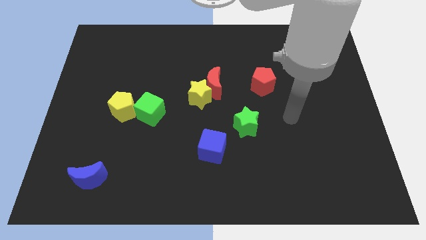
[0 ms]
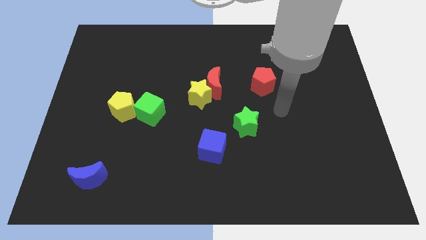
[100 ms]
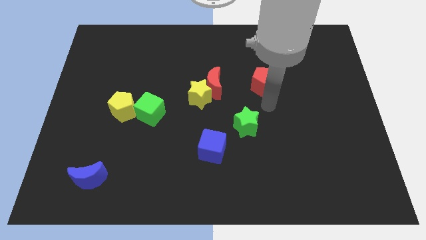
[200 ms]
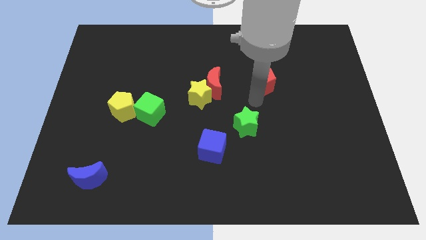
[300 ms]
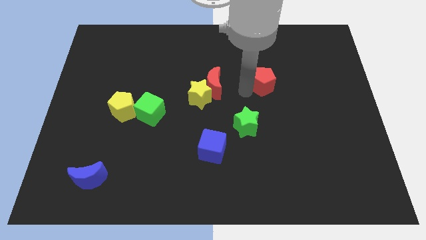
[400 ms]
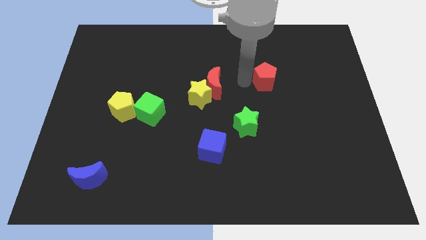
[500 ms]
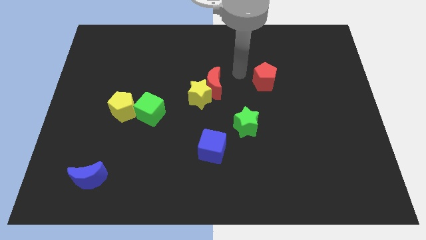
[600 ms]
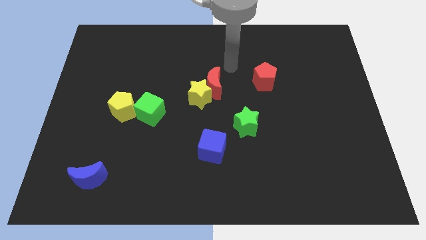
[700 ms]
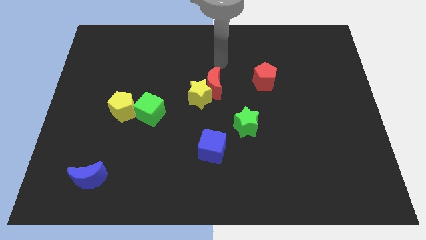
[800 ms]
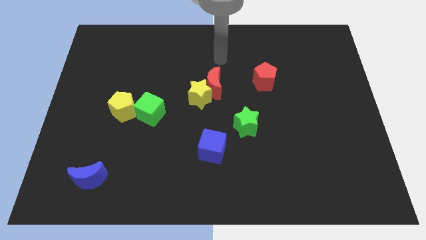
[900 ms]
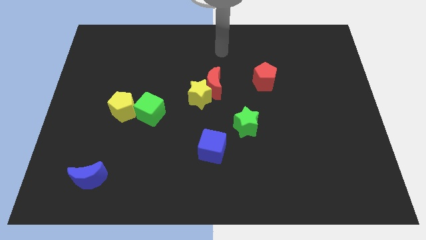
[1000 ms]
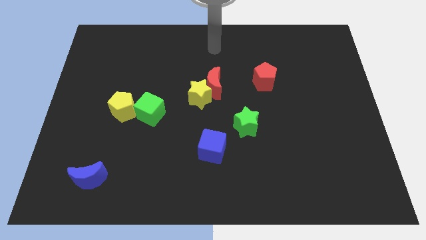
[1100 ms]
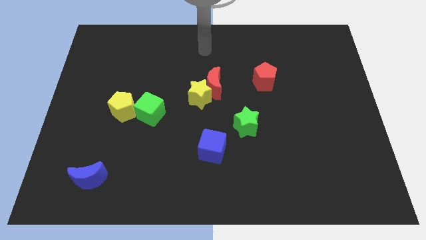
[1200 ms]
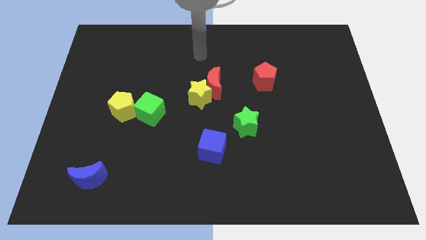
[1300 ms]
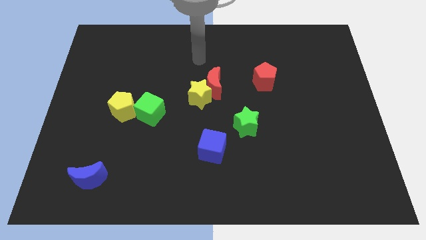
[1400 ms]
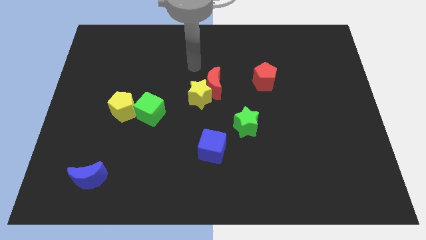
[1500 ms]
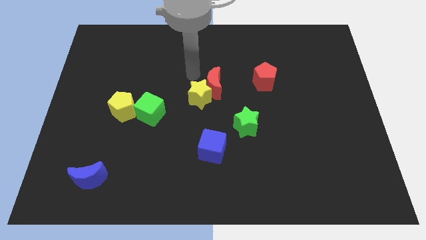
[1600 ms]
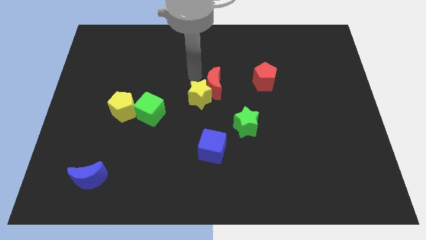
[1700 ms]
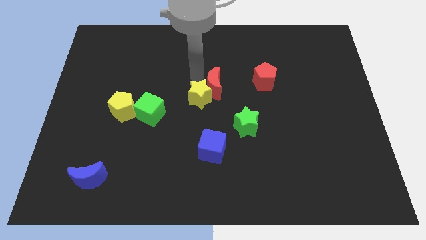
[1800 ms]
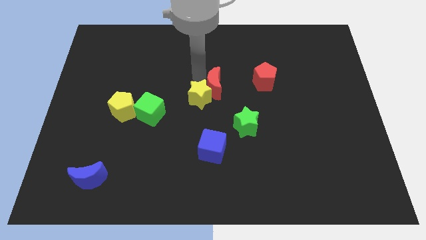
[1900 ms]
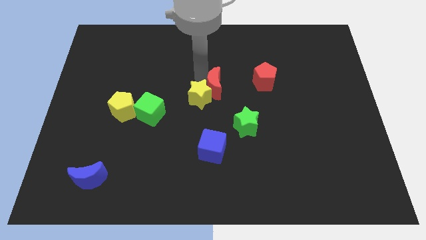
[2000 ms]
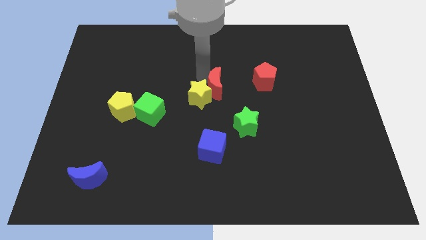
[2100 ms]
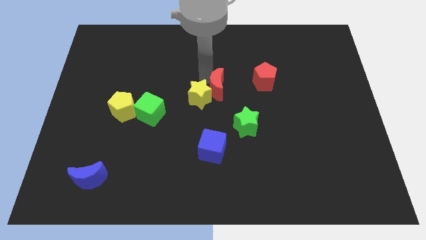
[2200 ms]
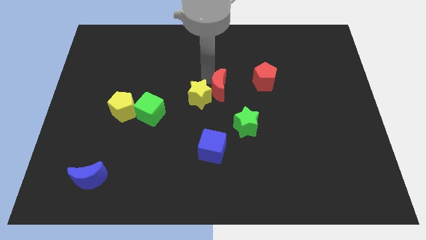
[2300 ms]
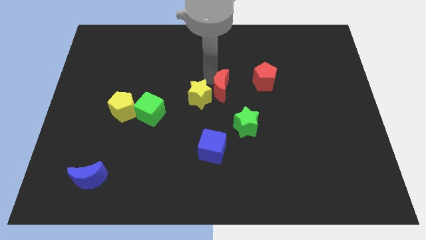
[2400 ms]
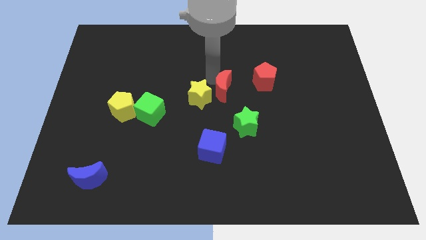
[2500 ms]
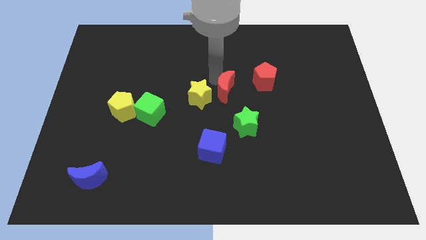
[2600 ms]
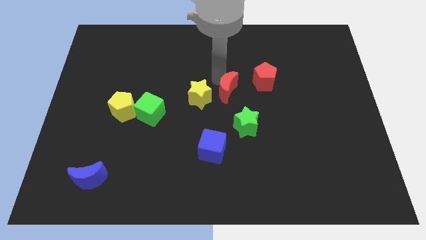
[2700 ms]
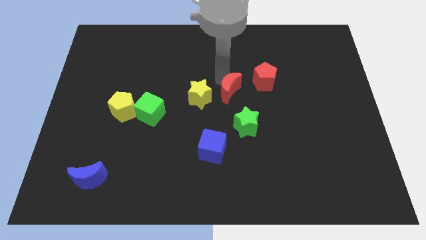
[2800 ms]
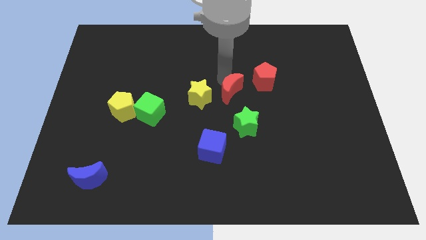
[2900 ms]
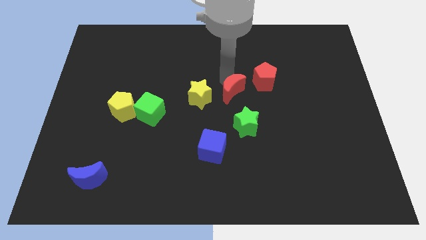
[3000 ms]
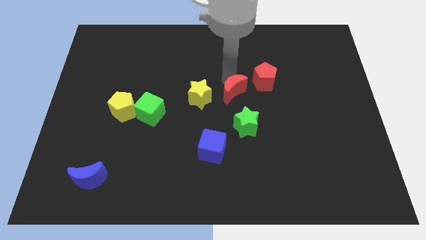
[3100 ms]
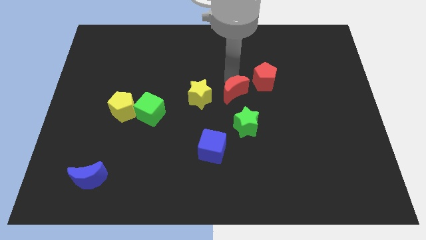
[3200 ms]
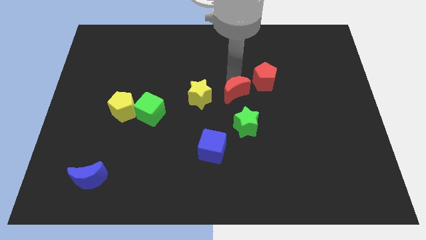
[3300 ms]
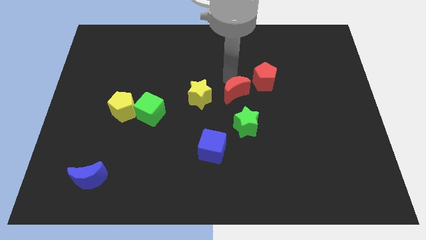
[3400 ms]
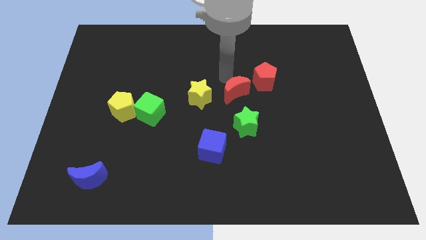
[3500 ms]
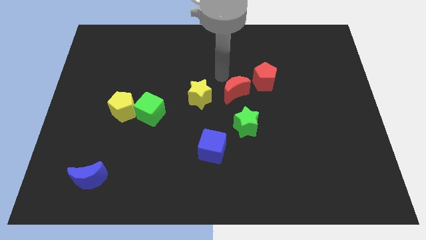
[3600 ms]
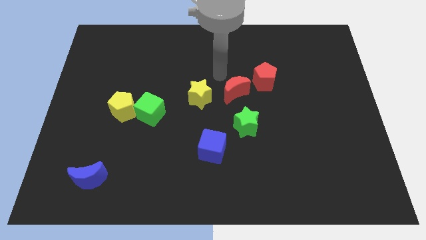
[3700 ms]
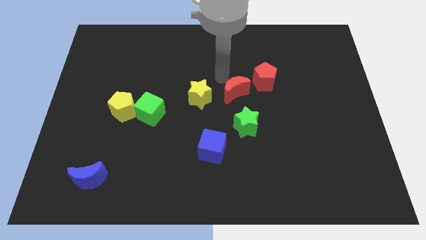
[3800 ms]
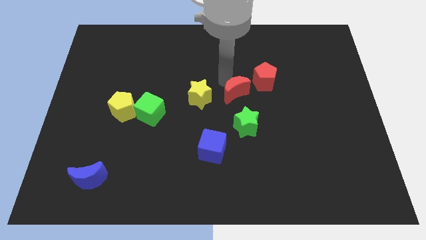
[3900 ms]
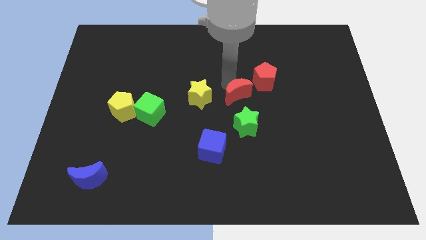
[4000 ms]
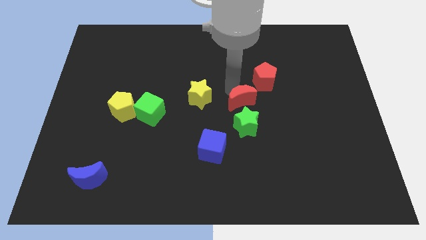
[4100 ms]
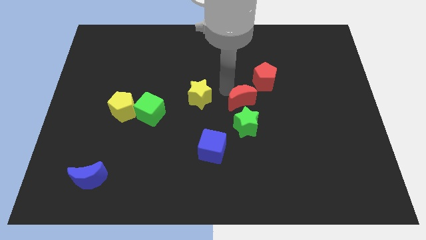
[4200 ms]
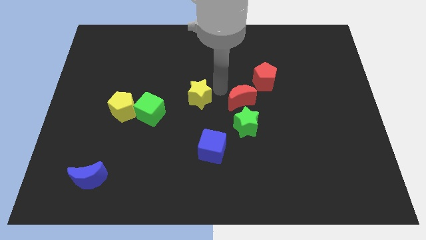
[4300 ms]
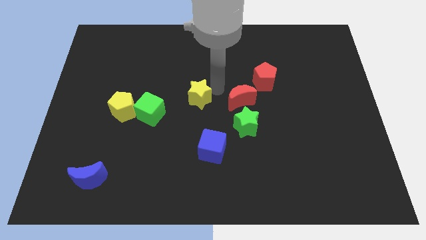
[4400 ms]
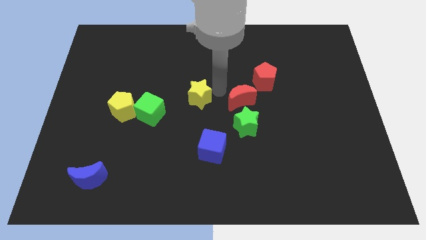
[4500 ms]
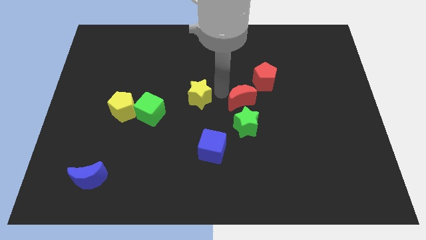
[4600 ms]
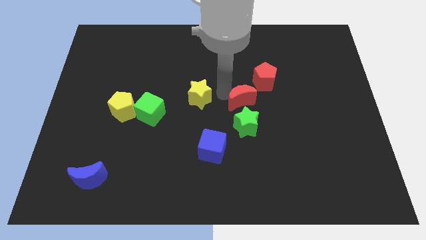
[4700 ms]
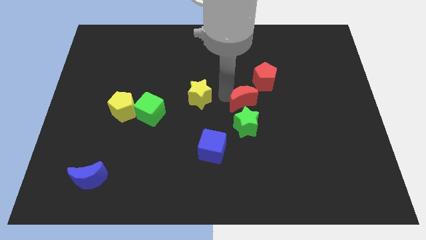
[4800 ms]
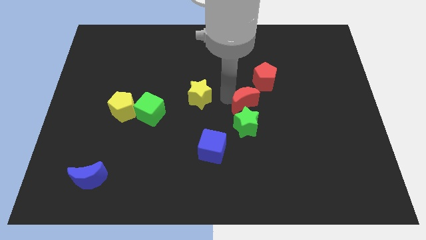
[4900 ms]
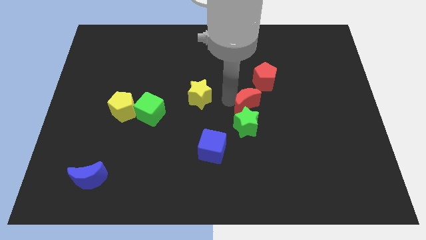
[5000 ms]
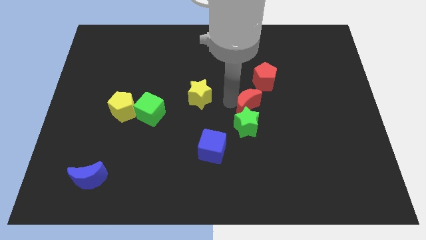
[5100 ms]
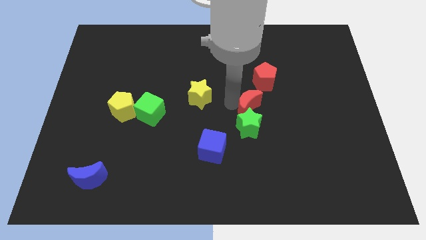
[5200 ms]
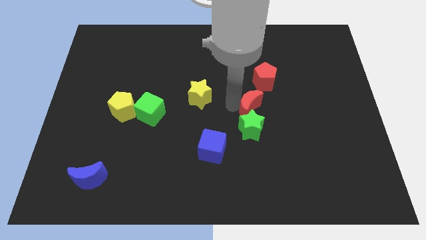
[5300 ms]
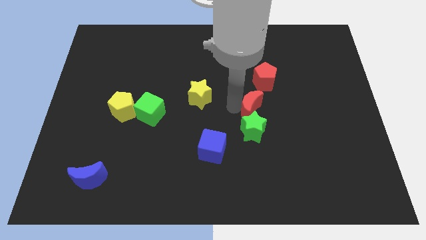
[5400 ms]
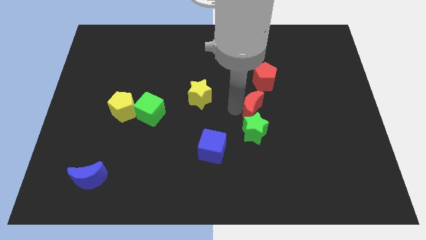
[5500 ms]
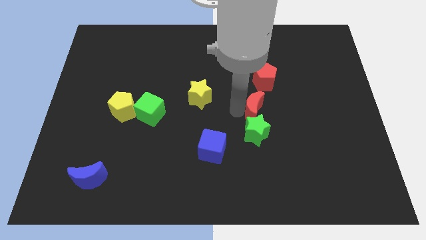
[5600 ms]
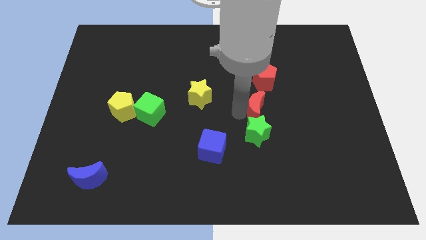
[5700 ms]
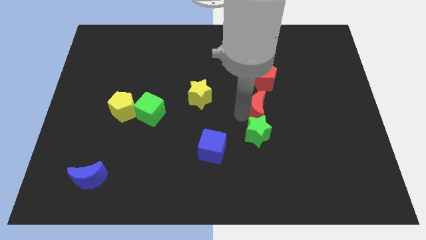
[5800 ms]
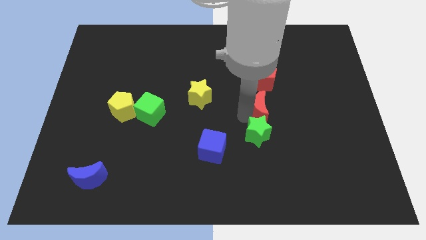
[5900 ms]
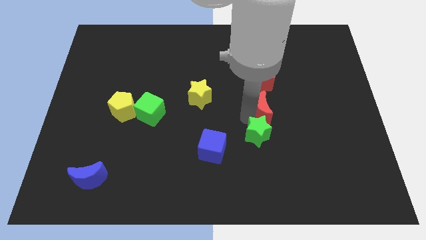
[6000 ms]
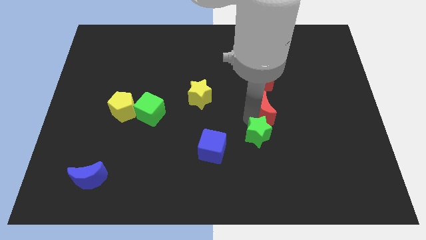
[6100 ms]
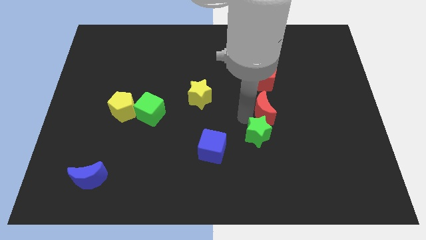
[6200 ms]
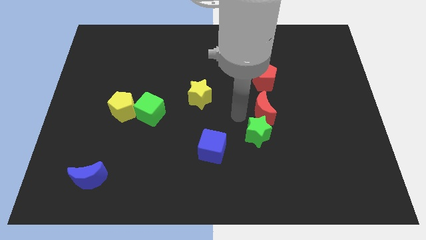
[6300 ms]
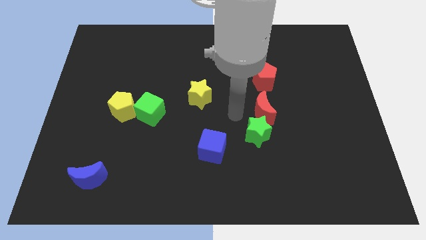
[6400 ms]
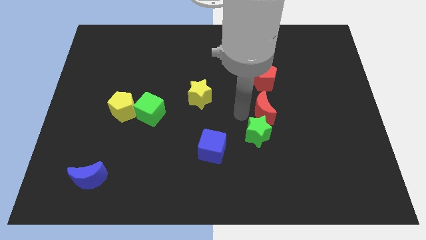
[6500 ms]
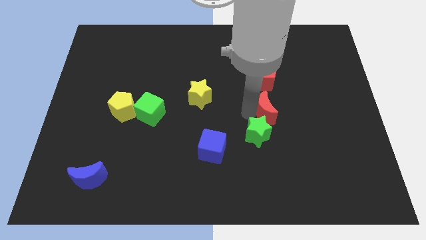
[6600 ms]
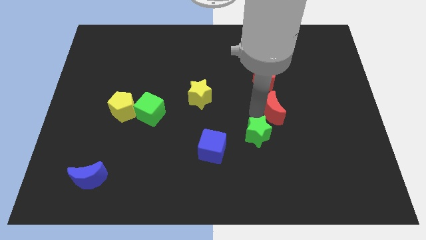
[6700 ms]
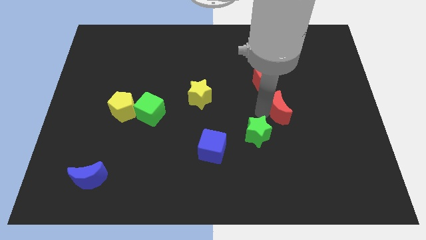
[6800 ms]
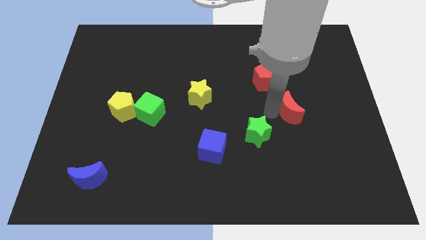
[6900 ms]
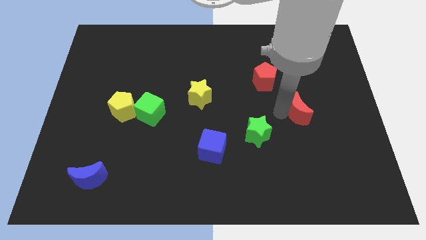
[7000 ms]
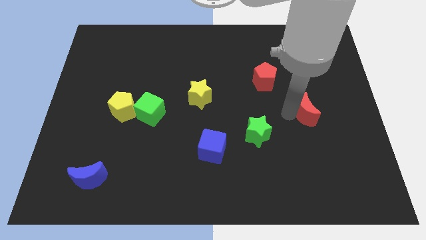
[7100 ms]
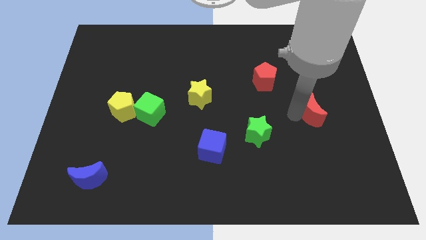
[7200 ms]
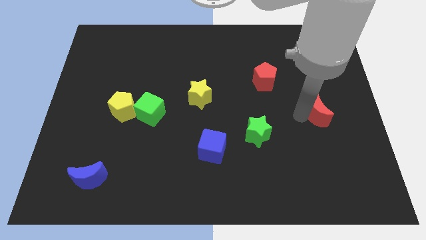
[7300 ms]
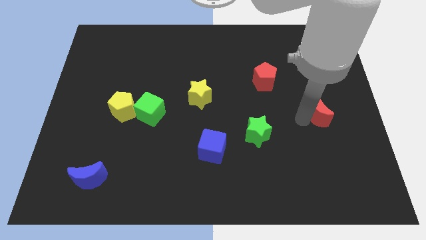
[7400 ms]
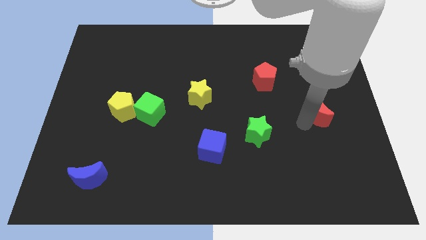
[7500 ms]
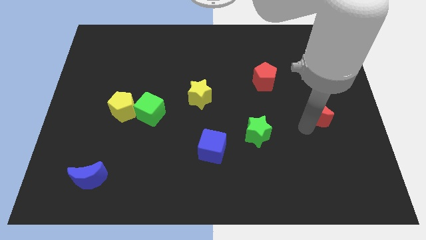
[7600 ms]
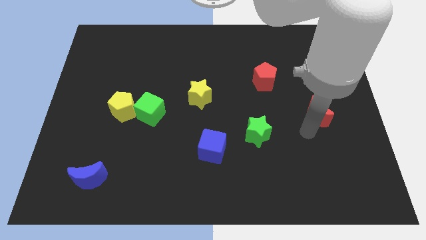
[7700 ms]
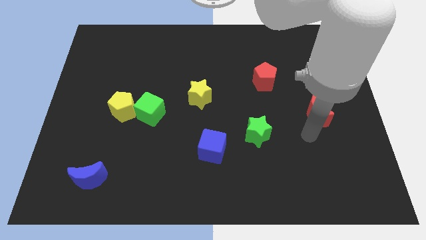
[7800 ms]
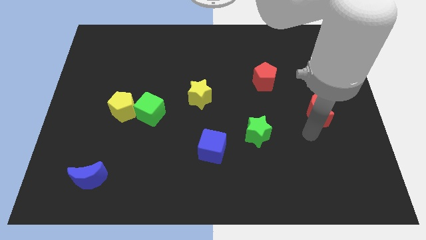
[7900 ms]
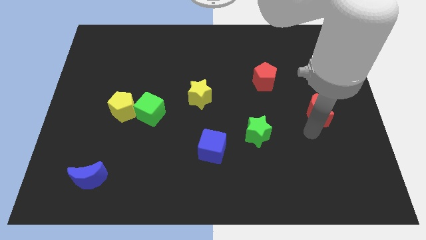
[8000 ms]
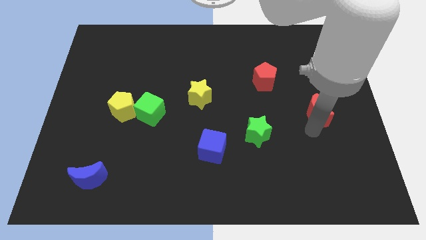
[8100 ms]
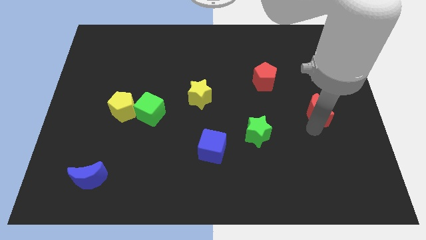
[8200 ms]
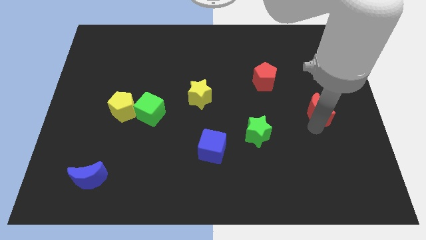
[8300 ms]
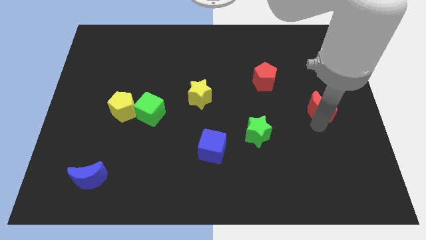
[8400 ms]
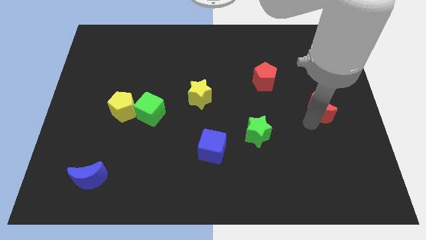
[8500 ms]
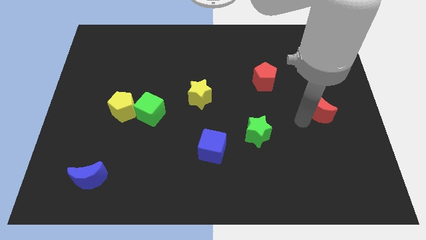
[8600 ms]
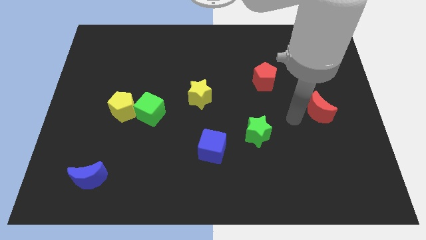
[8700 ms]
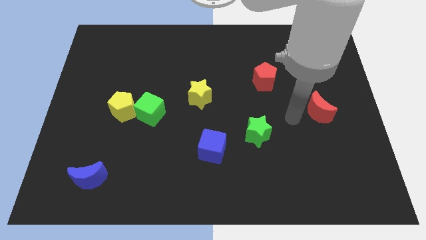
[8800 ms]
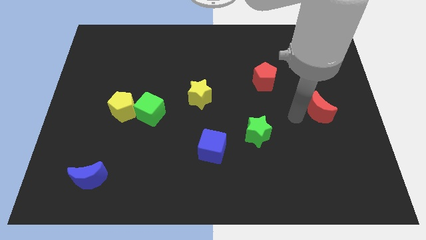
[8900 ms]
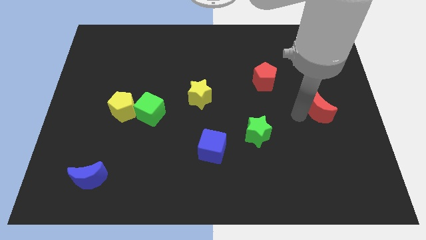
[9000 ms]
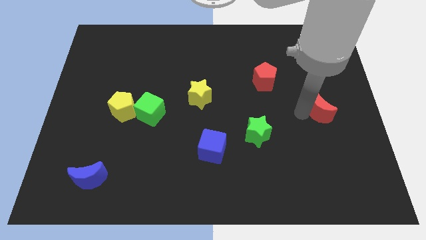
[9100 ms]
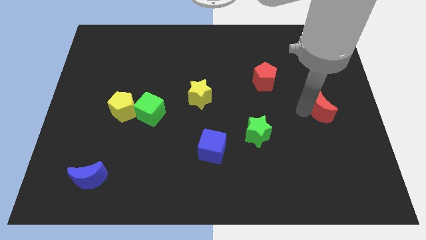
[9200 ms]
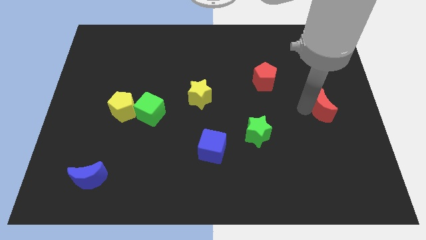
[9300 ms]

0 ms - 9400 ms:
put the red moon to the center right
